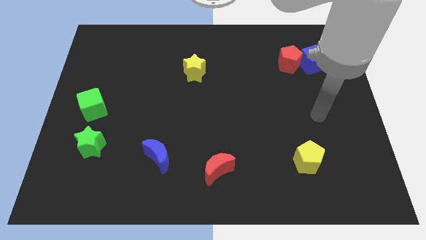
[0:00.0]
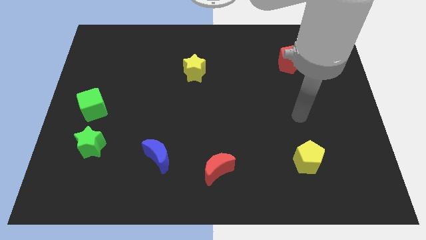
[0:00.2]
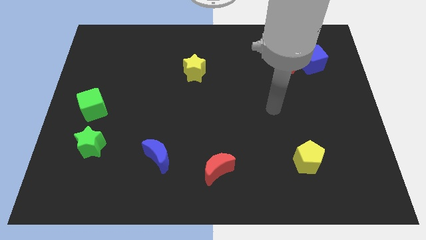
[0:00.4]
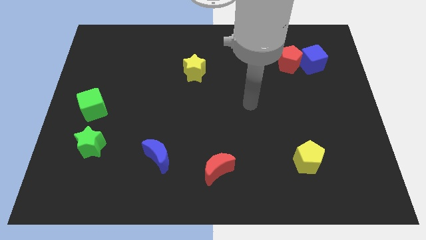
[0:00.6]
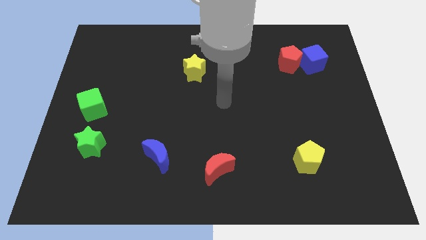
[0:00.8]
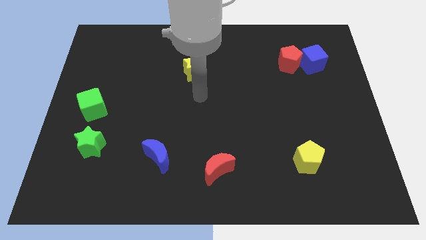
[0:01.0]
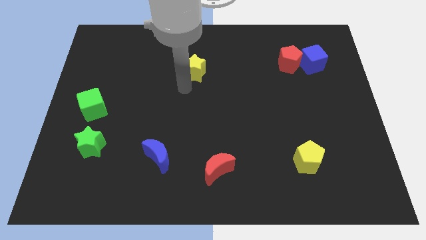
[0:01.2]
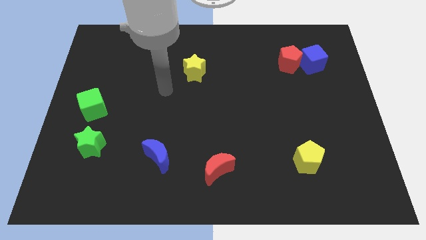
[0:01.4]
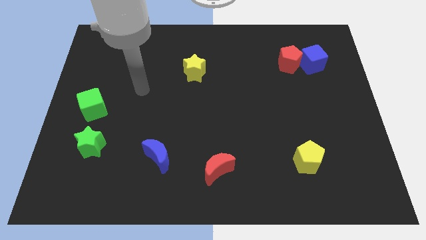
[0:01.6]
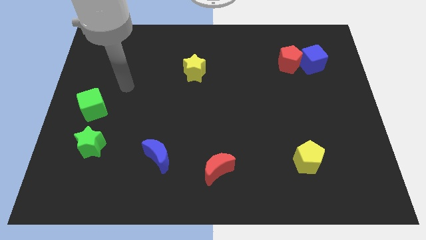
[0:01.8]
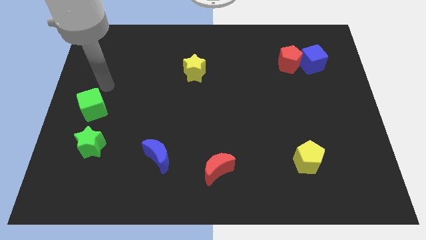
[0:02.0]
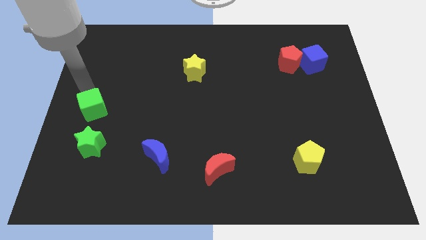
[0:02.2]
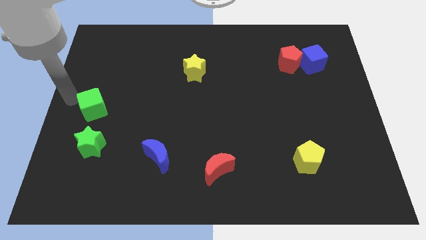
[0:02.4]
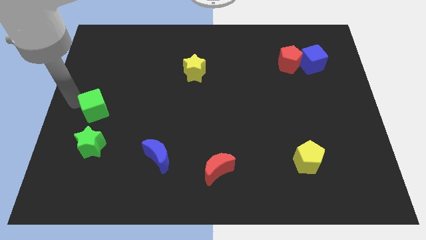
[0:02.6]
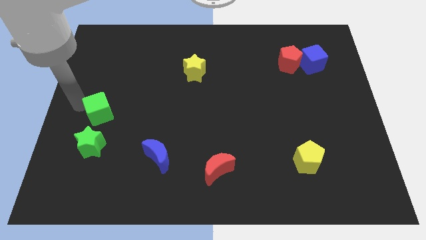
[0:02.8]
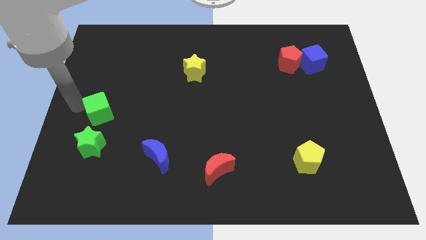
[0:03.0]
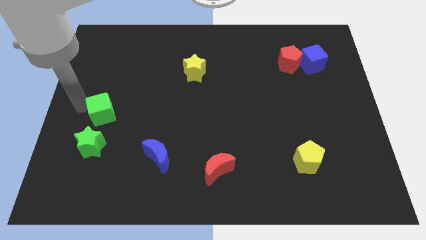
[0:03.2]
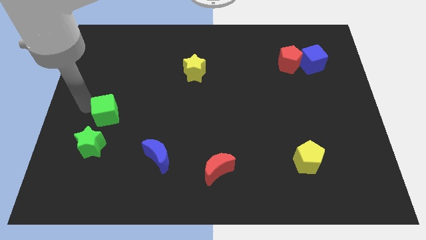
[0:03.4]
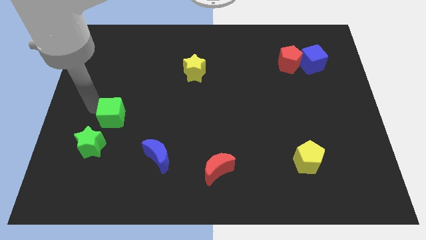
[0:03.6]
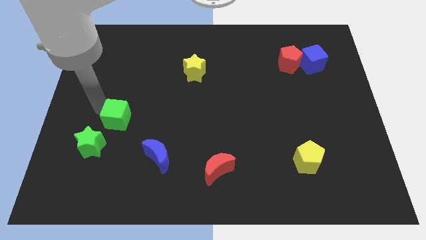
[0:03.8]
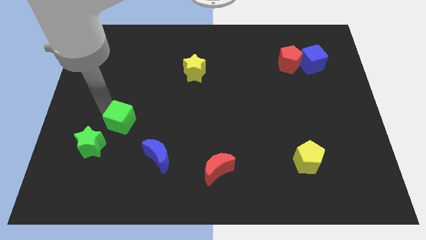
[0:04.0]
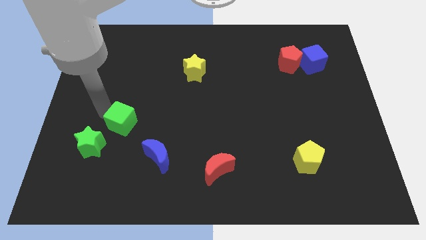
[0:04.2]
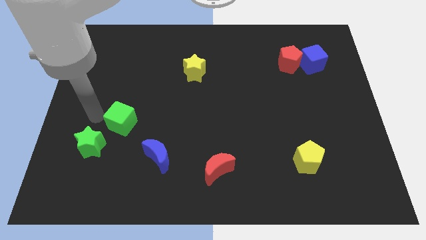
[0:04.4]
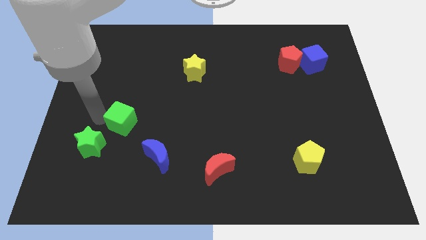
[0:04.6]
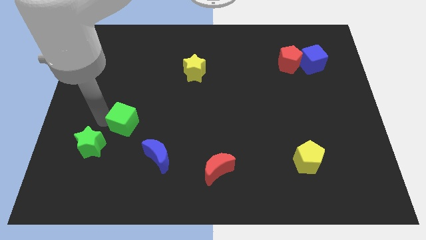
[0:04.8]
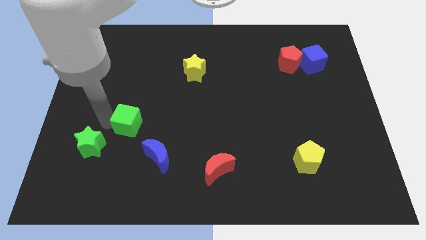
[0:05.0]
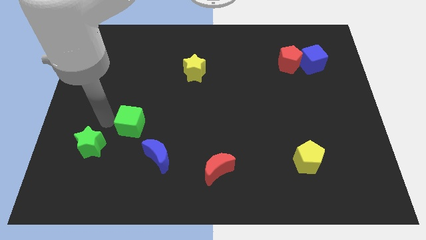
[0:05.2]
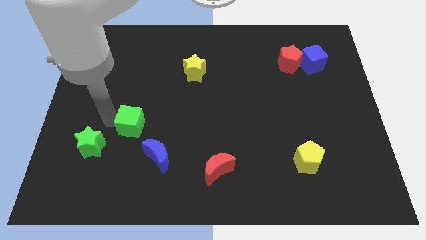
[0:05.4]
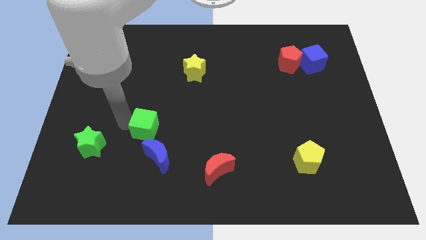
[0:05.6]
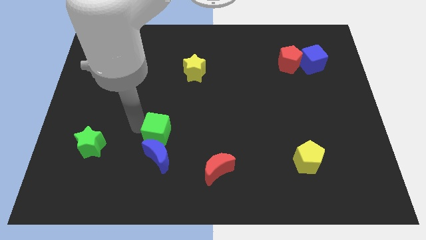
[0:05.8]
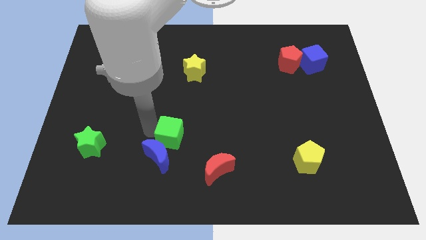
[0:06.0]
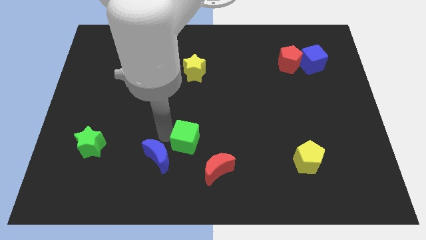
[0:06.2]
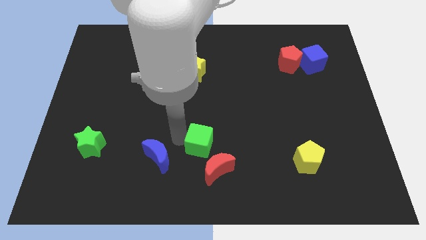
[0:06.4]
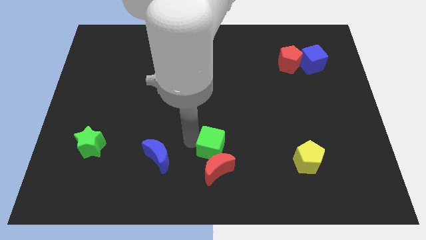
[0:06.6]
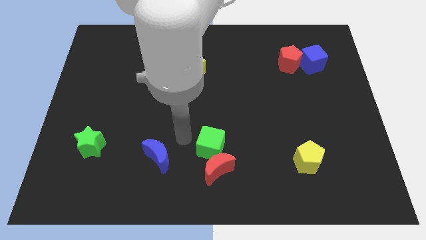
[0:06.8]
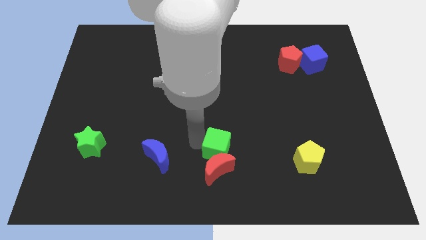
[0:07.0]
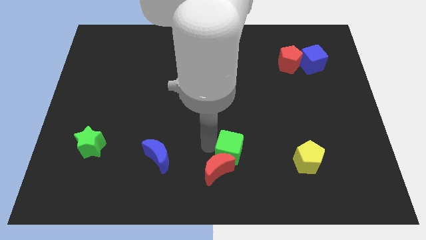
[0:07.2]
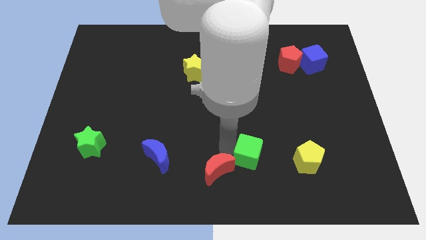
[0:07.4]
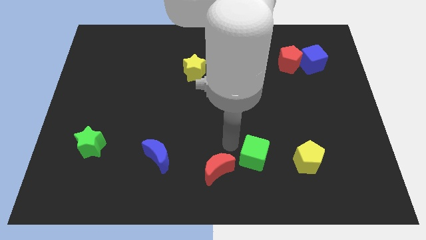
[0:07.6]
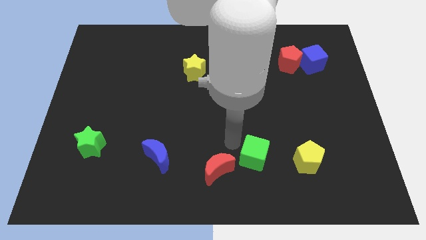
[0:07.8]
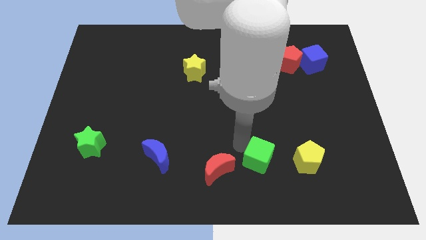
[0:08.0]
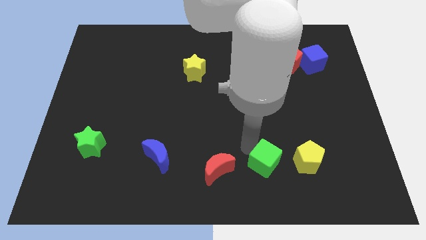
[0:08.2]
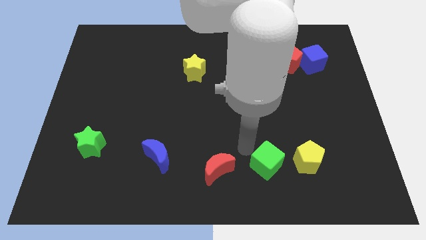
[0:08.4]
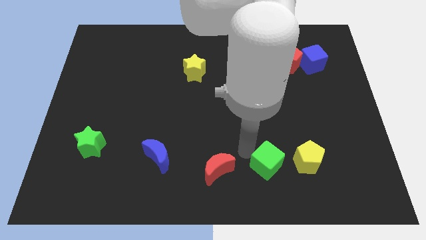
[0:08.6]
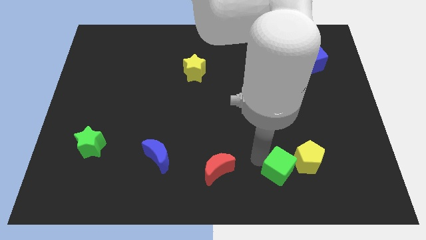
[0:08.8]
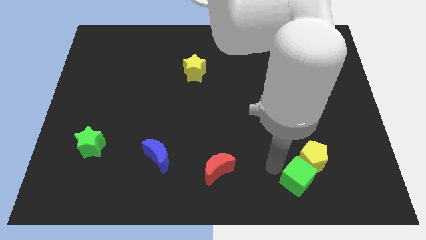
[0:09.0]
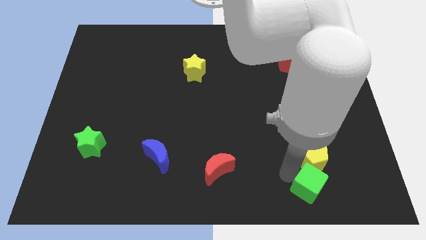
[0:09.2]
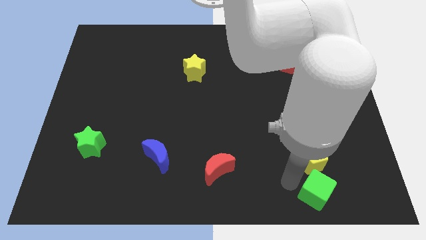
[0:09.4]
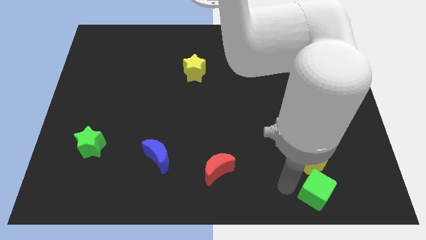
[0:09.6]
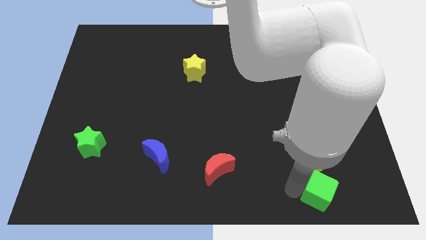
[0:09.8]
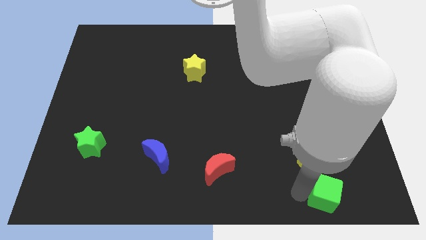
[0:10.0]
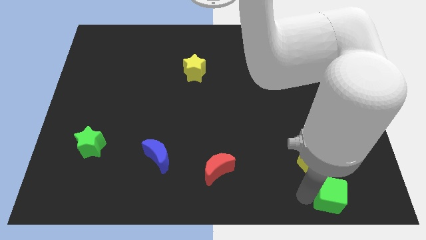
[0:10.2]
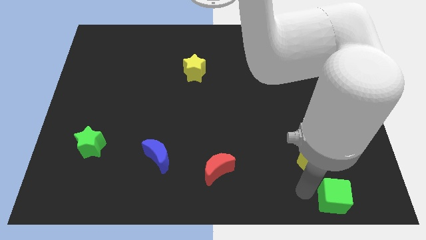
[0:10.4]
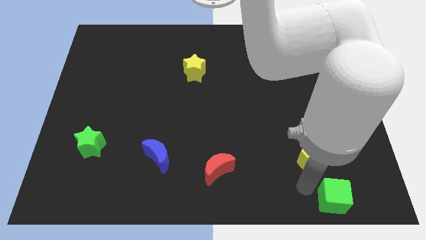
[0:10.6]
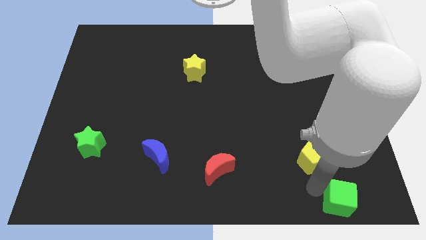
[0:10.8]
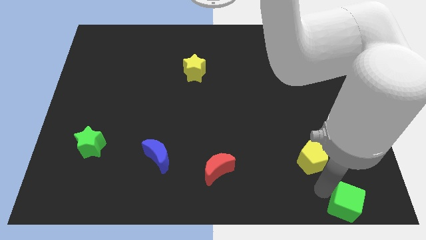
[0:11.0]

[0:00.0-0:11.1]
slide the green cube to the lower right corner

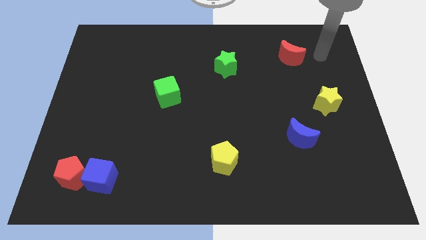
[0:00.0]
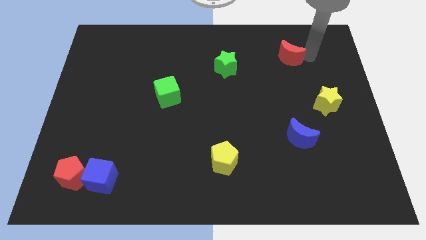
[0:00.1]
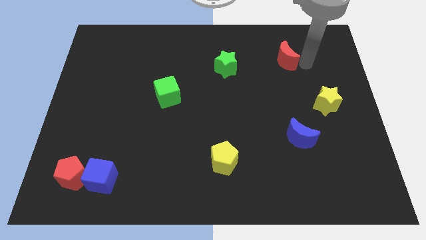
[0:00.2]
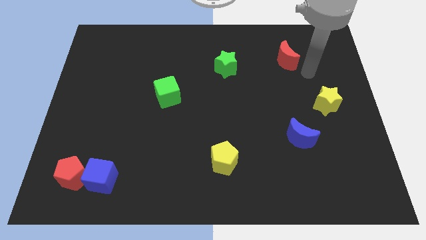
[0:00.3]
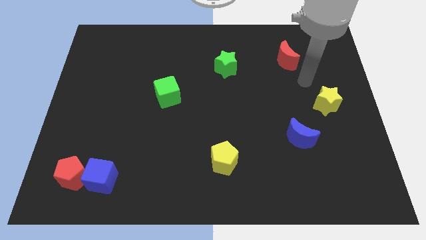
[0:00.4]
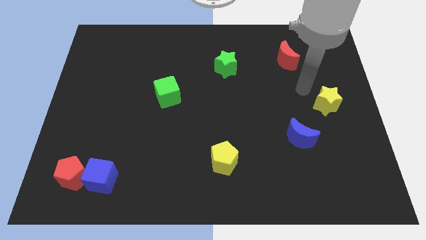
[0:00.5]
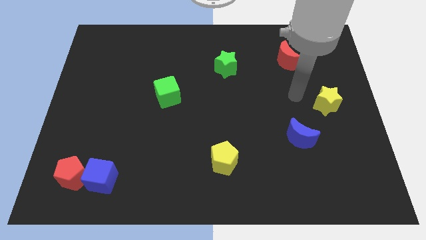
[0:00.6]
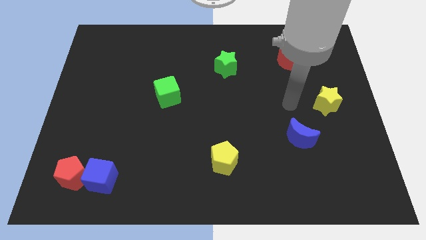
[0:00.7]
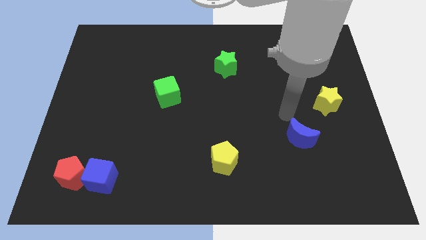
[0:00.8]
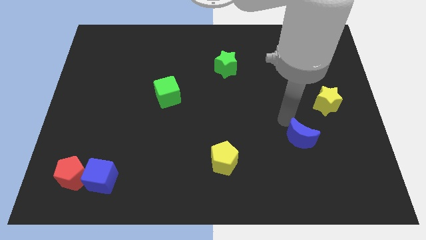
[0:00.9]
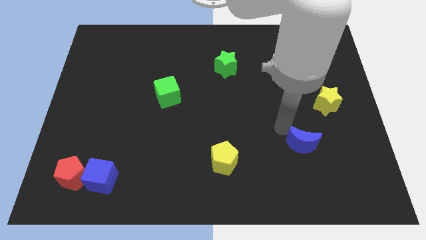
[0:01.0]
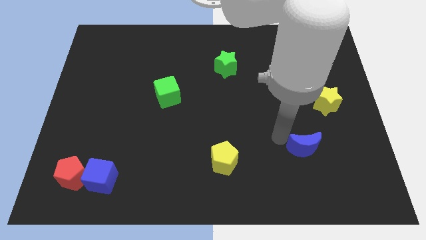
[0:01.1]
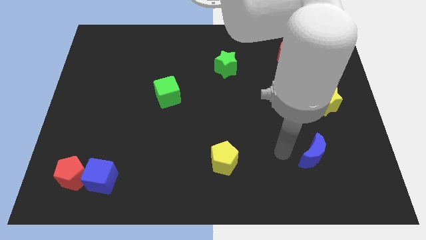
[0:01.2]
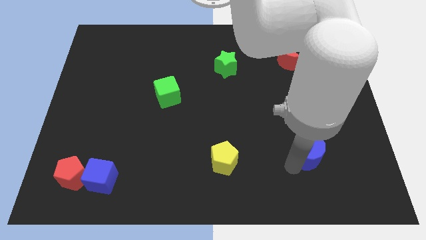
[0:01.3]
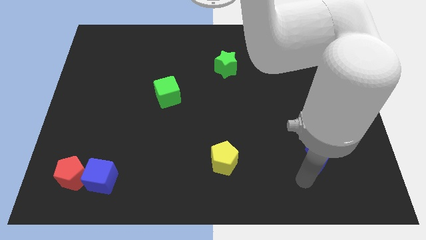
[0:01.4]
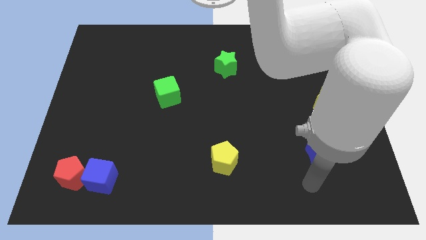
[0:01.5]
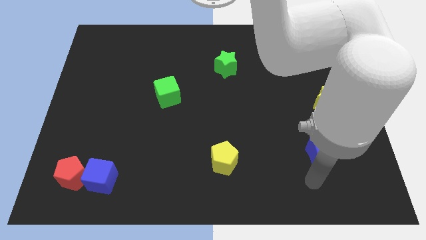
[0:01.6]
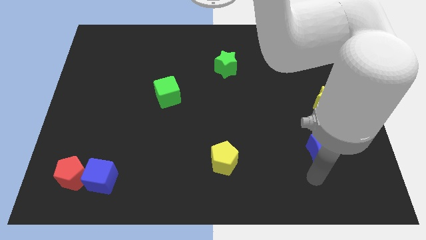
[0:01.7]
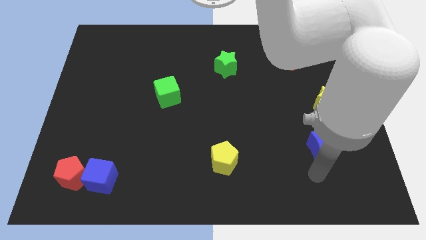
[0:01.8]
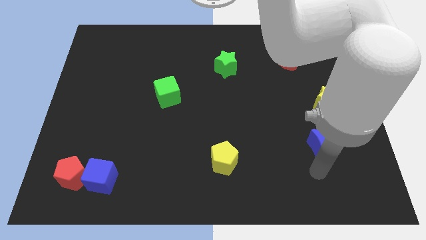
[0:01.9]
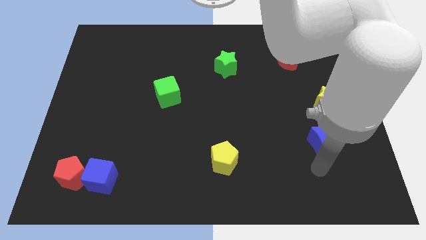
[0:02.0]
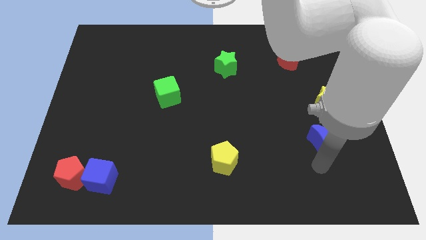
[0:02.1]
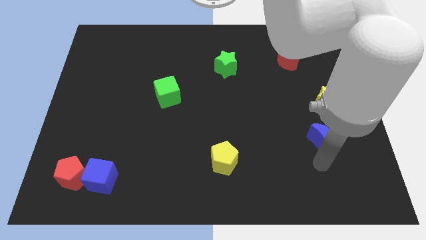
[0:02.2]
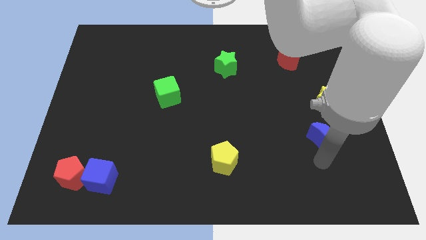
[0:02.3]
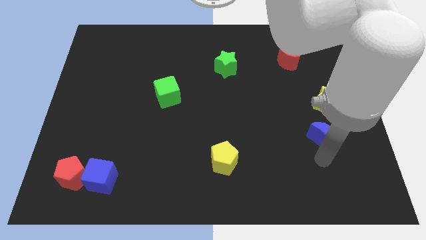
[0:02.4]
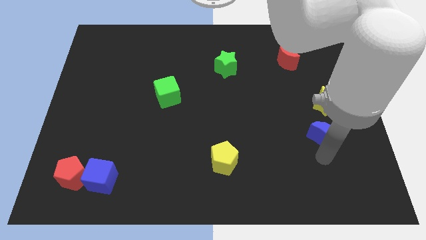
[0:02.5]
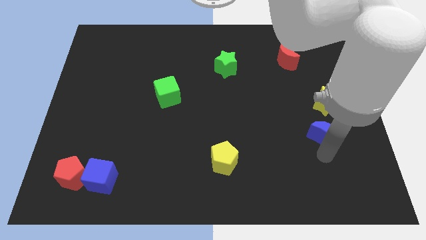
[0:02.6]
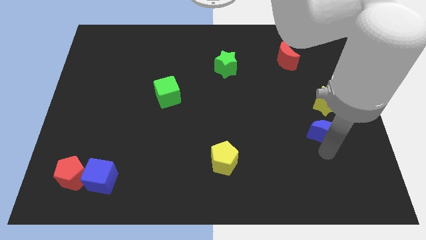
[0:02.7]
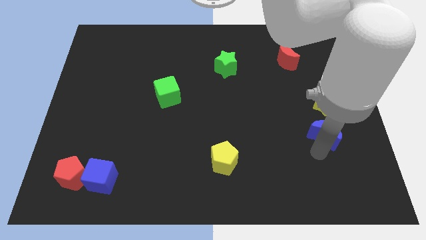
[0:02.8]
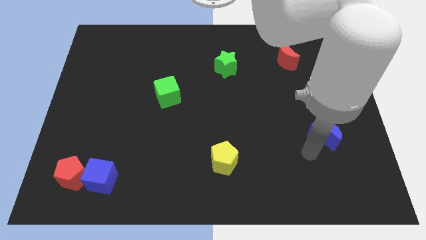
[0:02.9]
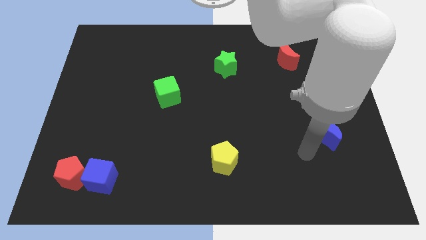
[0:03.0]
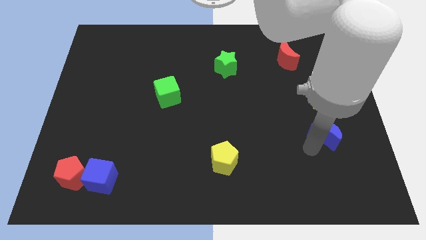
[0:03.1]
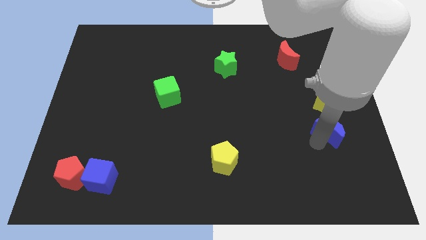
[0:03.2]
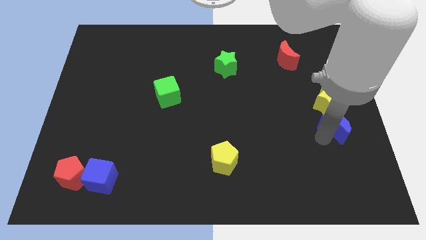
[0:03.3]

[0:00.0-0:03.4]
put the blue moon to the center right
